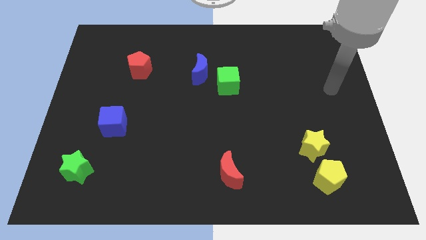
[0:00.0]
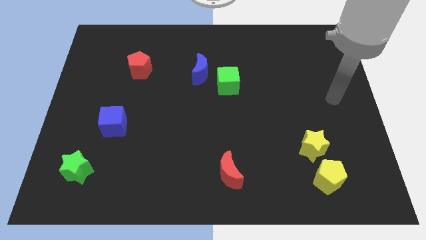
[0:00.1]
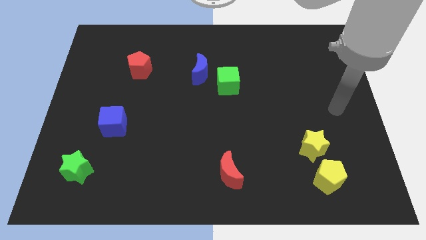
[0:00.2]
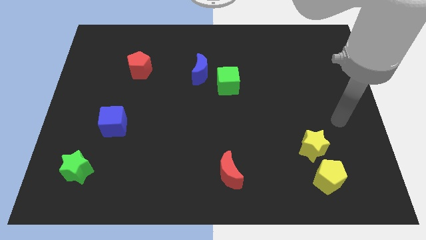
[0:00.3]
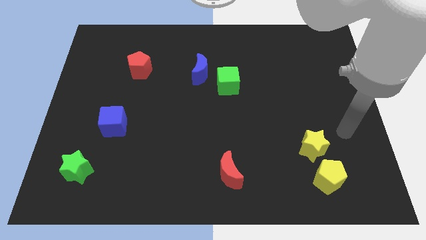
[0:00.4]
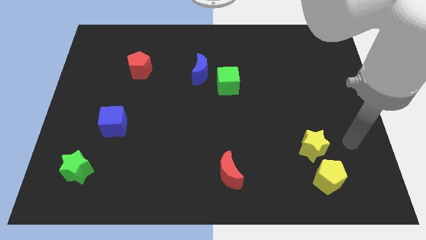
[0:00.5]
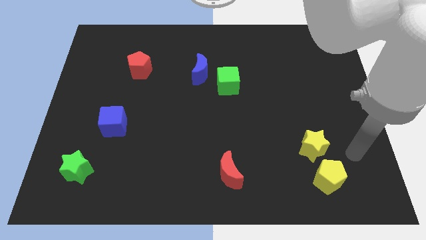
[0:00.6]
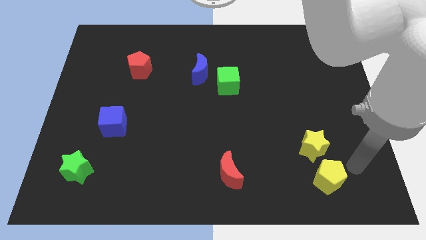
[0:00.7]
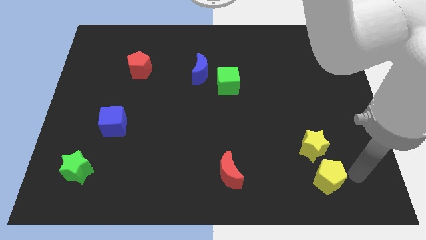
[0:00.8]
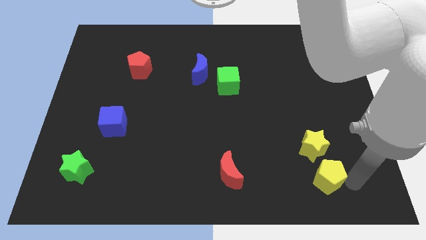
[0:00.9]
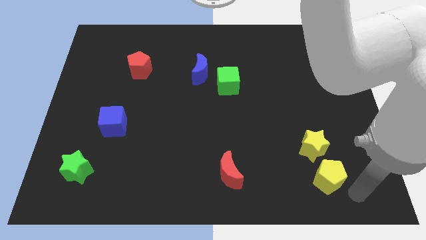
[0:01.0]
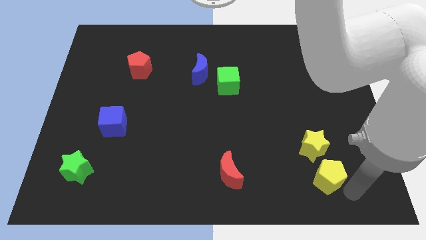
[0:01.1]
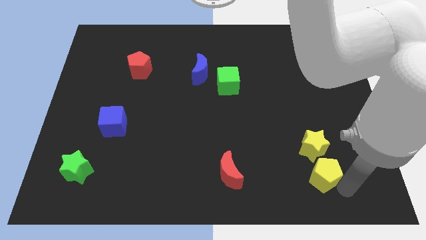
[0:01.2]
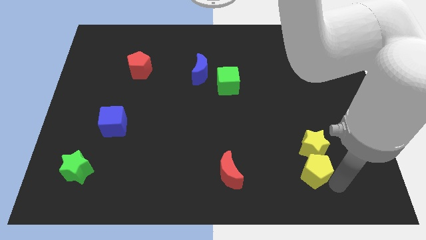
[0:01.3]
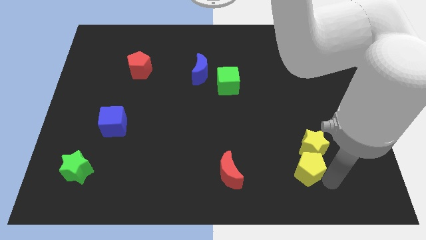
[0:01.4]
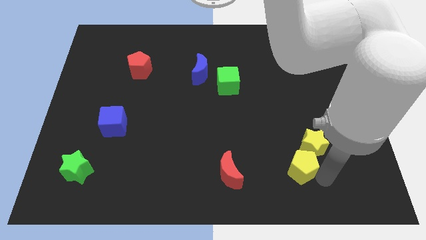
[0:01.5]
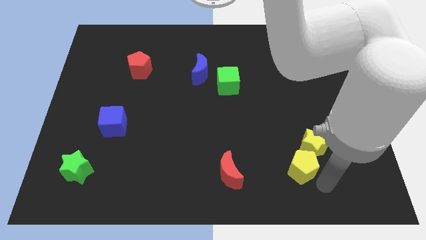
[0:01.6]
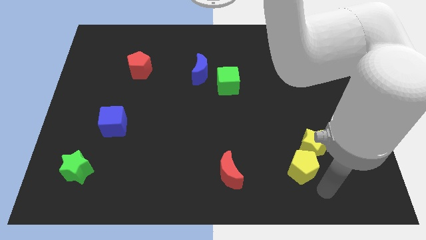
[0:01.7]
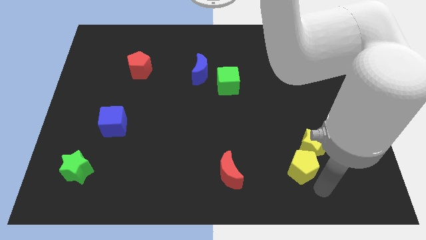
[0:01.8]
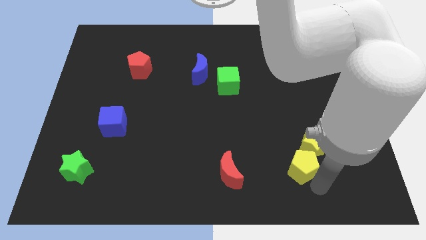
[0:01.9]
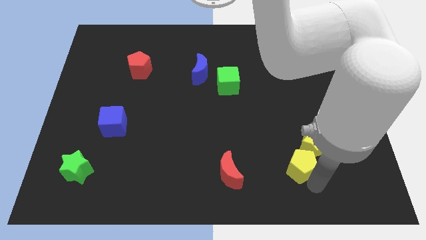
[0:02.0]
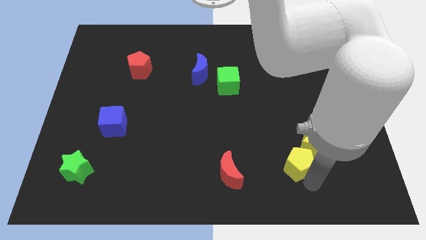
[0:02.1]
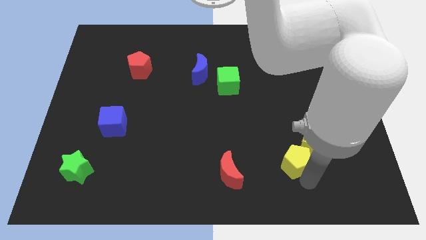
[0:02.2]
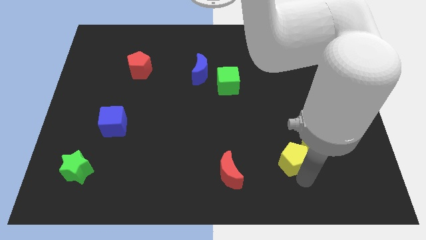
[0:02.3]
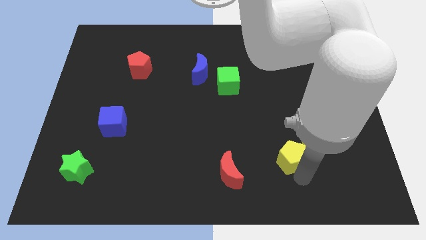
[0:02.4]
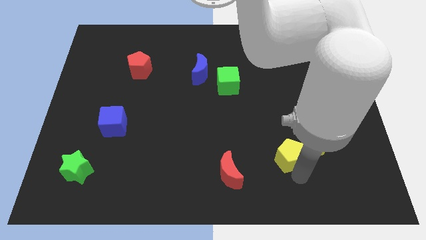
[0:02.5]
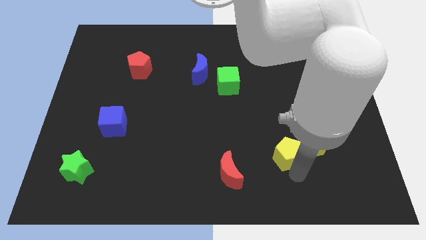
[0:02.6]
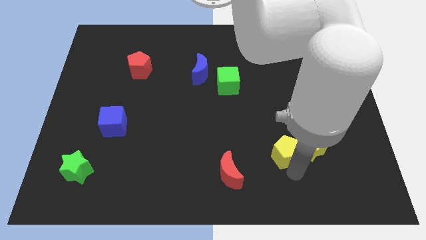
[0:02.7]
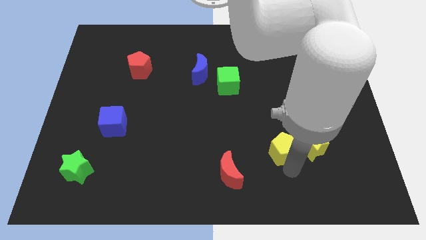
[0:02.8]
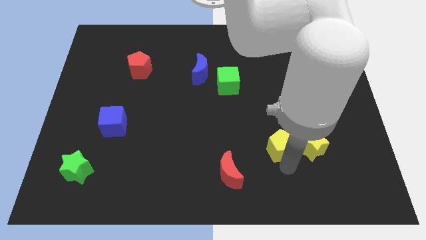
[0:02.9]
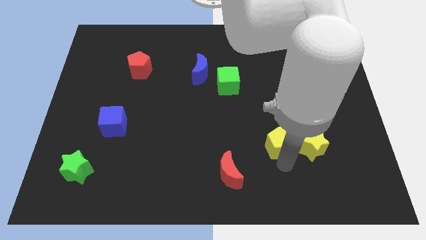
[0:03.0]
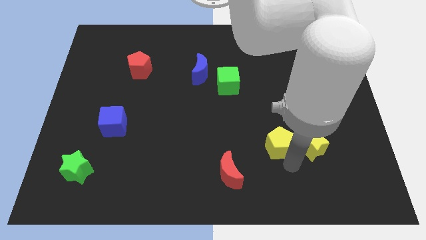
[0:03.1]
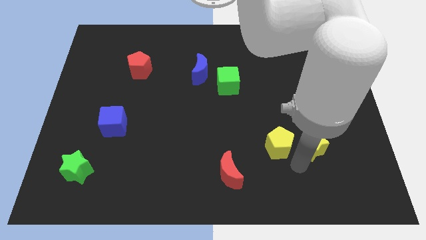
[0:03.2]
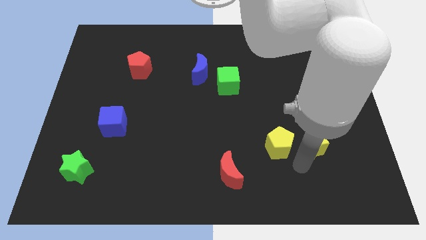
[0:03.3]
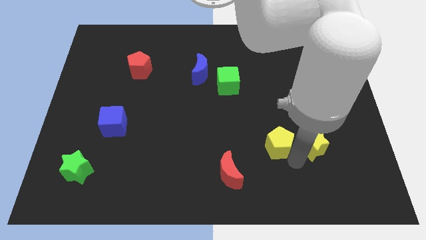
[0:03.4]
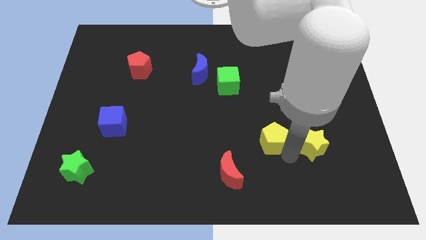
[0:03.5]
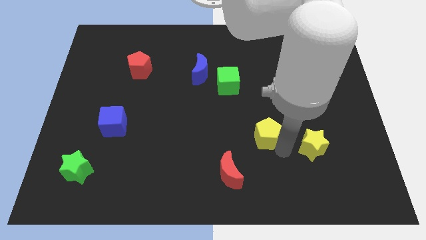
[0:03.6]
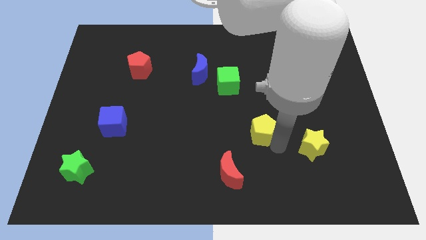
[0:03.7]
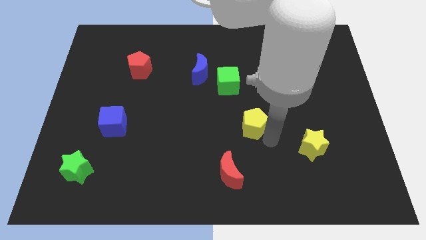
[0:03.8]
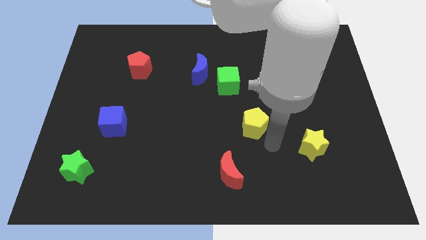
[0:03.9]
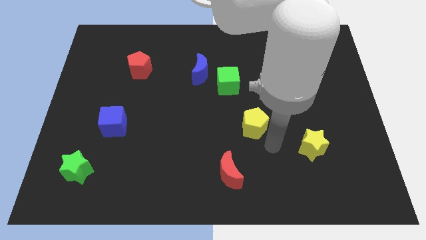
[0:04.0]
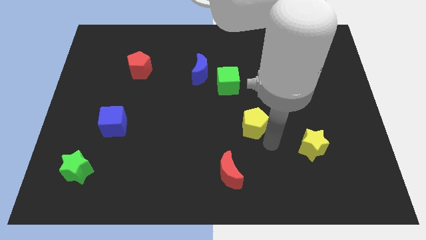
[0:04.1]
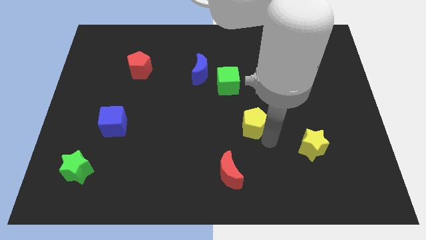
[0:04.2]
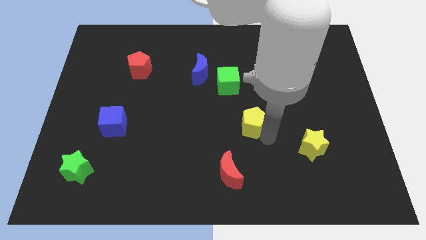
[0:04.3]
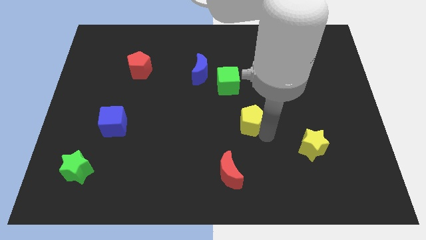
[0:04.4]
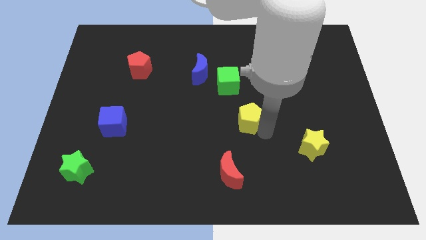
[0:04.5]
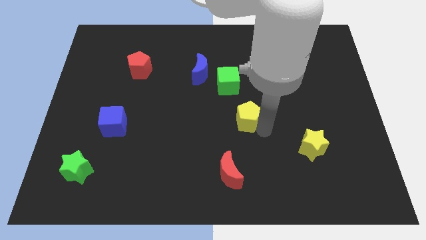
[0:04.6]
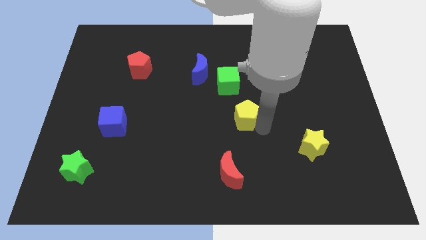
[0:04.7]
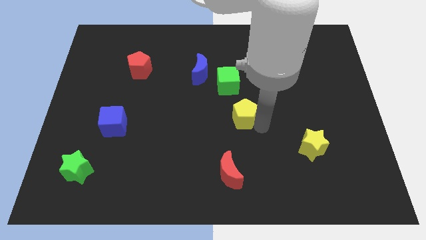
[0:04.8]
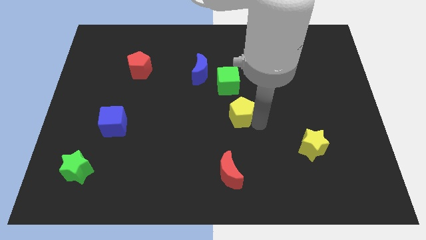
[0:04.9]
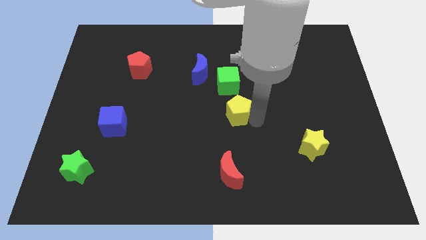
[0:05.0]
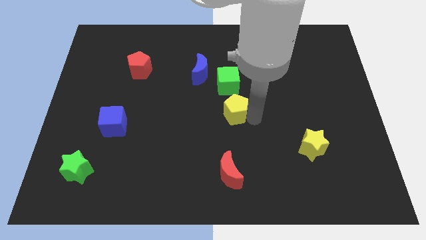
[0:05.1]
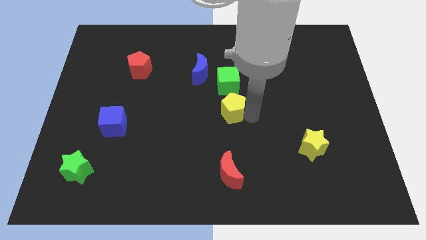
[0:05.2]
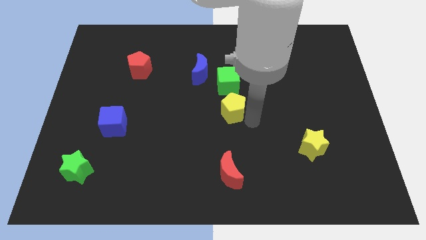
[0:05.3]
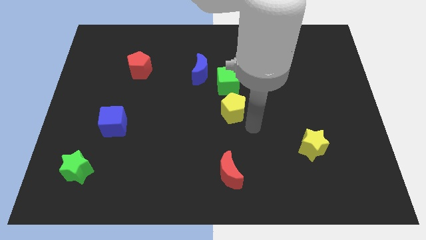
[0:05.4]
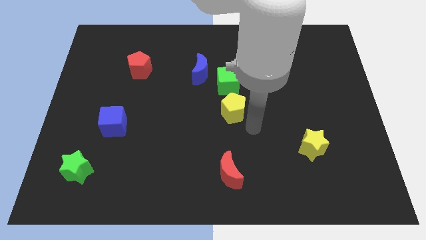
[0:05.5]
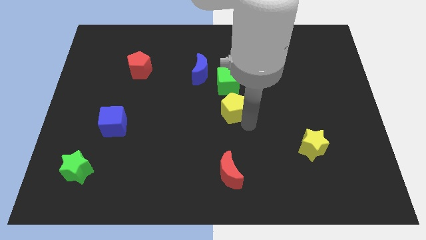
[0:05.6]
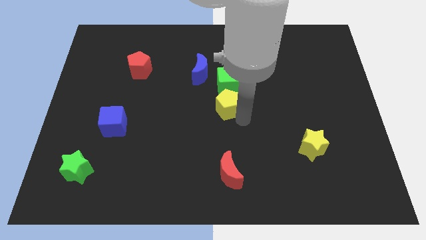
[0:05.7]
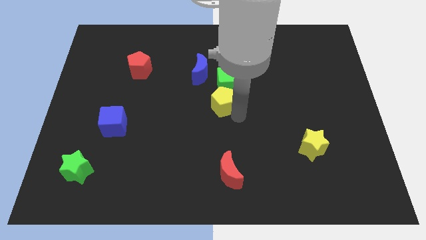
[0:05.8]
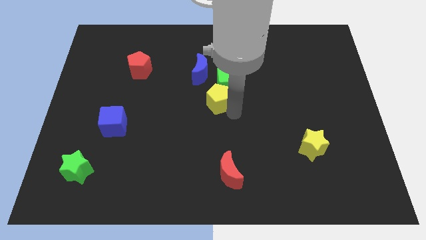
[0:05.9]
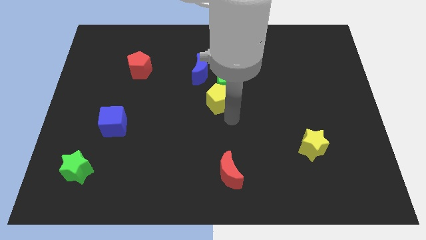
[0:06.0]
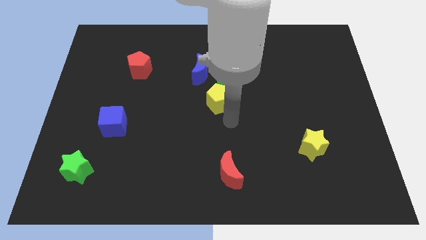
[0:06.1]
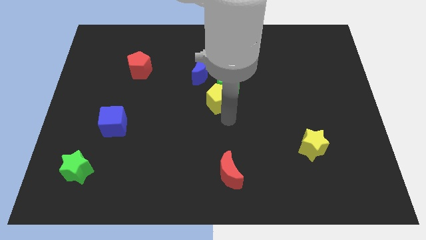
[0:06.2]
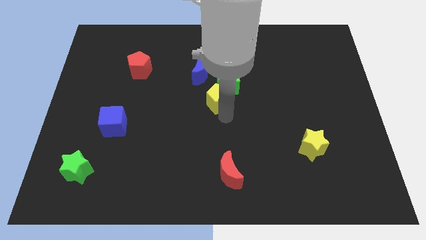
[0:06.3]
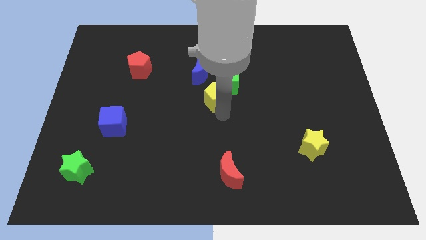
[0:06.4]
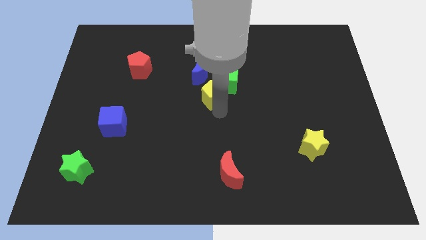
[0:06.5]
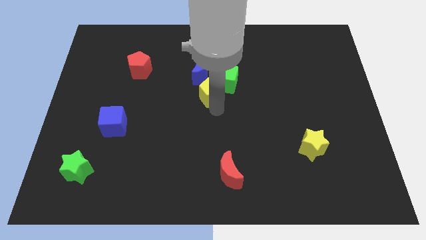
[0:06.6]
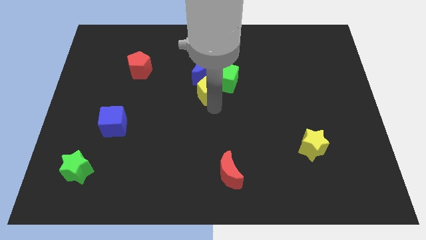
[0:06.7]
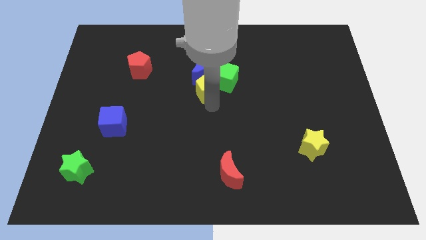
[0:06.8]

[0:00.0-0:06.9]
push the yellow pentagon towards the blue moon
